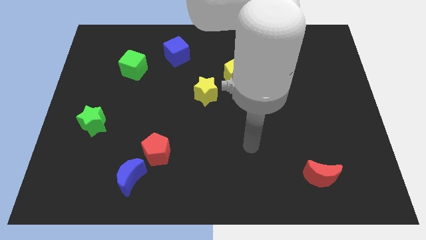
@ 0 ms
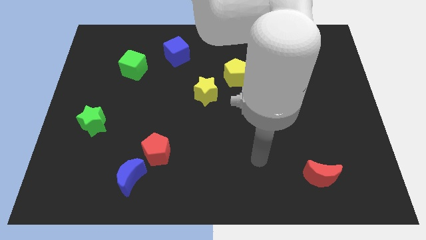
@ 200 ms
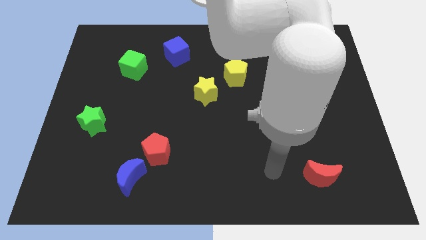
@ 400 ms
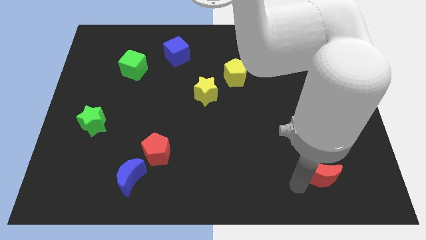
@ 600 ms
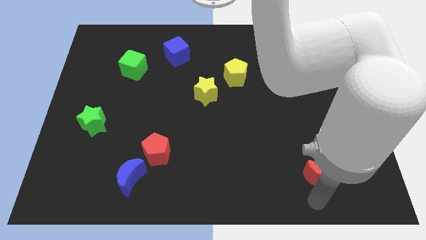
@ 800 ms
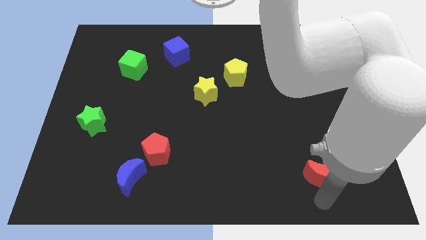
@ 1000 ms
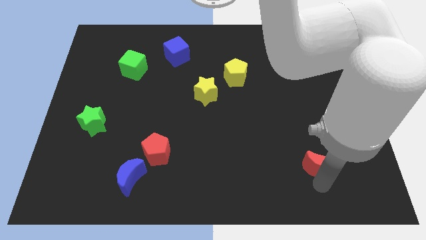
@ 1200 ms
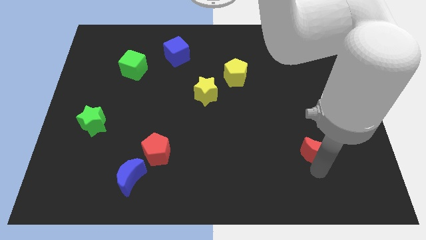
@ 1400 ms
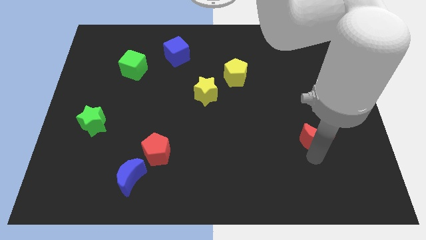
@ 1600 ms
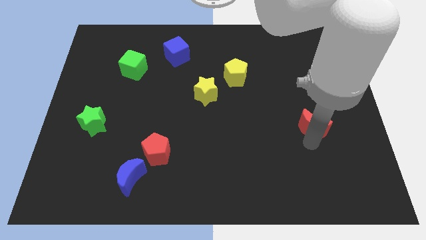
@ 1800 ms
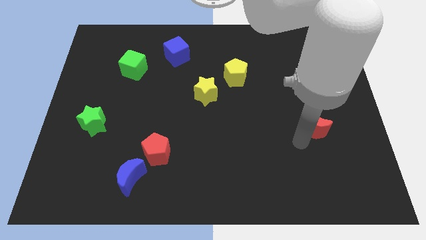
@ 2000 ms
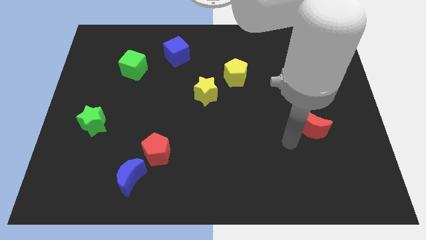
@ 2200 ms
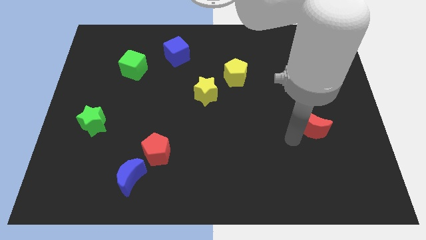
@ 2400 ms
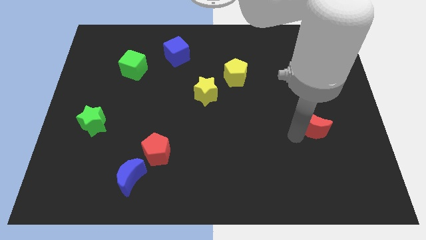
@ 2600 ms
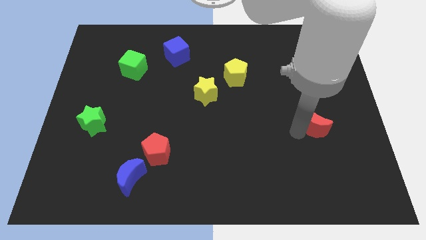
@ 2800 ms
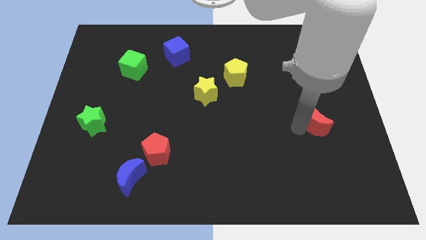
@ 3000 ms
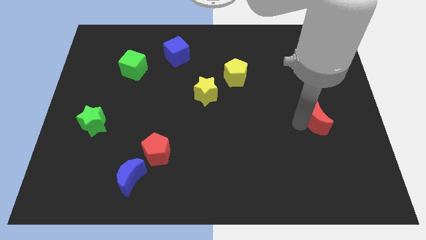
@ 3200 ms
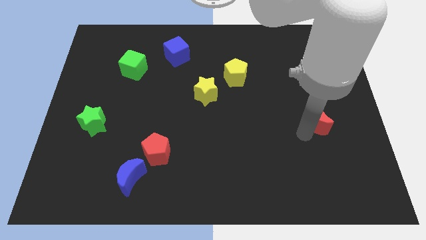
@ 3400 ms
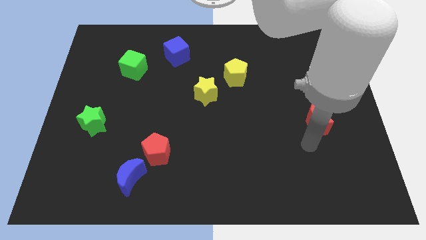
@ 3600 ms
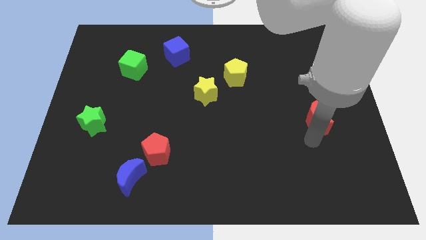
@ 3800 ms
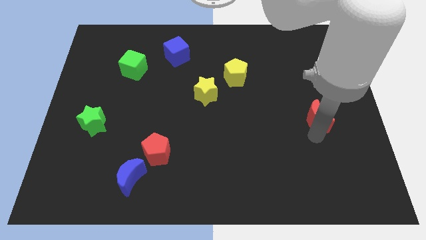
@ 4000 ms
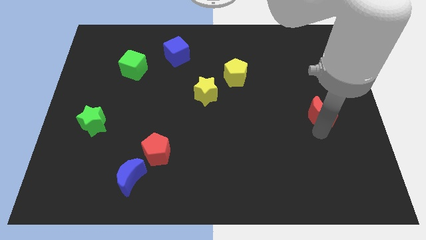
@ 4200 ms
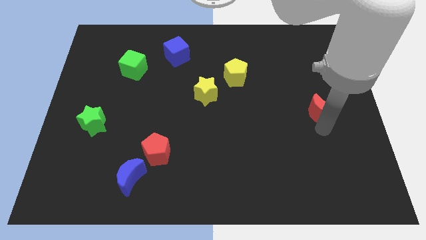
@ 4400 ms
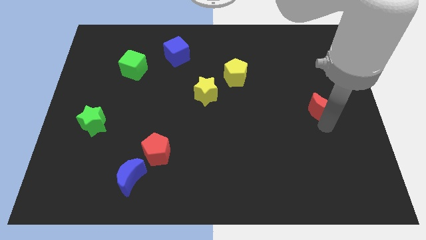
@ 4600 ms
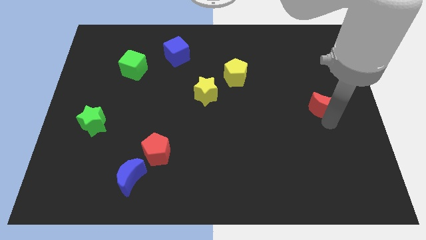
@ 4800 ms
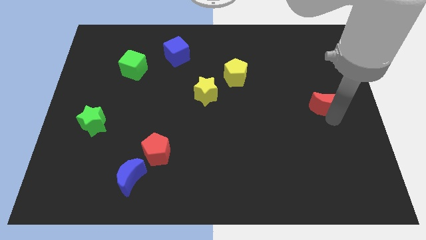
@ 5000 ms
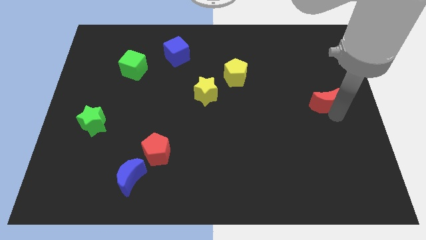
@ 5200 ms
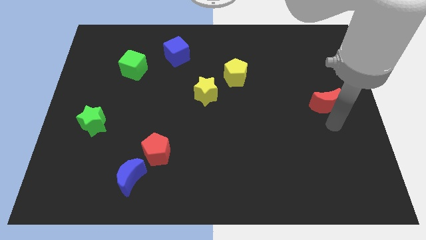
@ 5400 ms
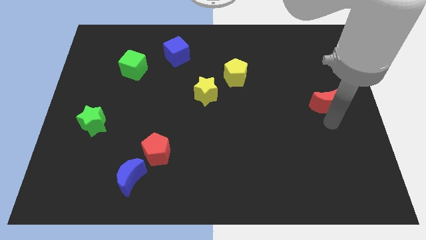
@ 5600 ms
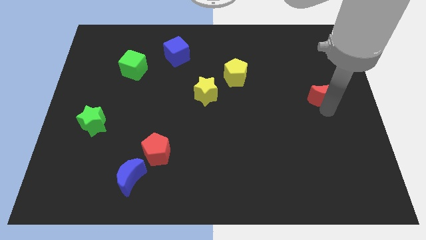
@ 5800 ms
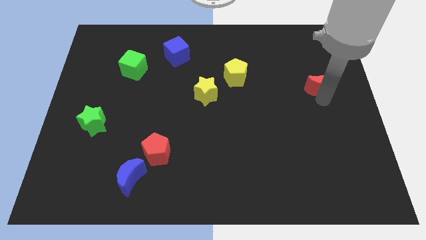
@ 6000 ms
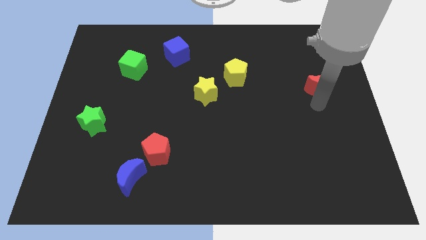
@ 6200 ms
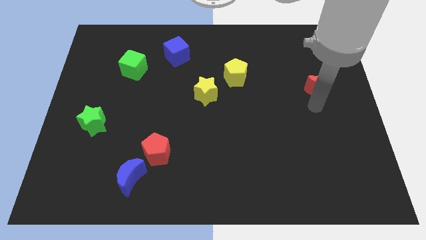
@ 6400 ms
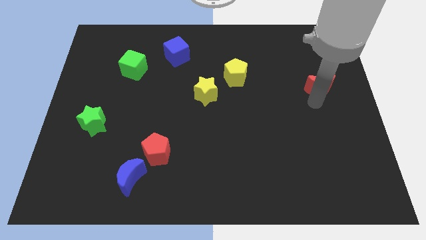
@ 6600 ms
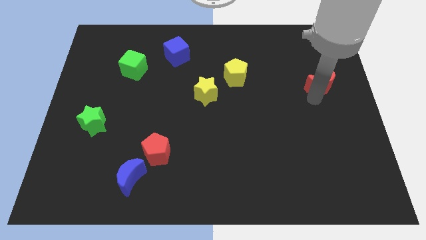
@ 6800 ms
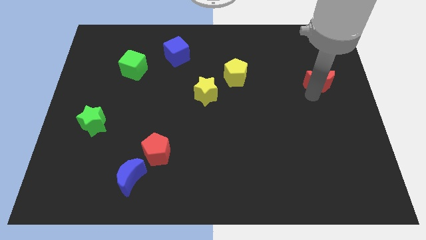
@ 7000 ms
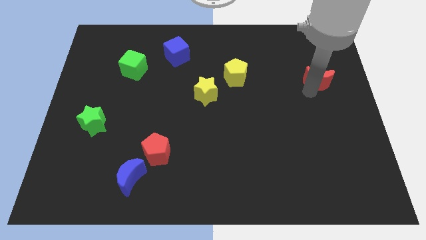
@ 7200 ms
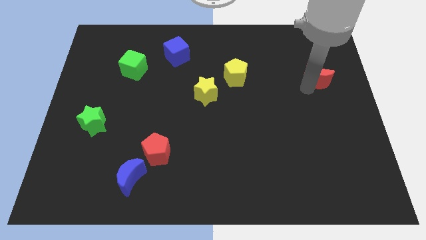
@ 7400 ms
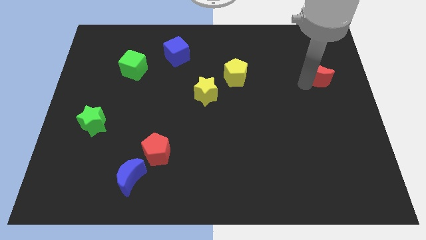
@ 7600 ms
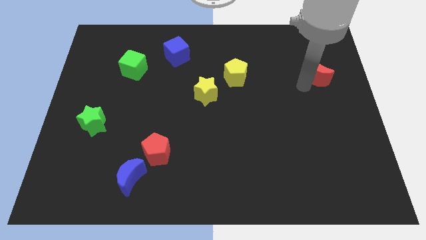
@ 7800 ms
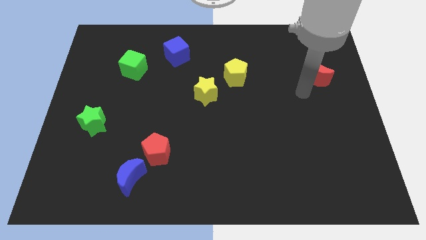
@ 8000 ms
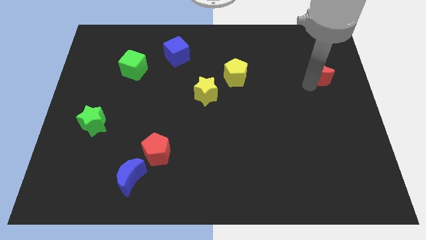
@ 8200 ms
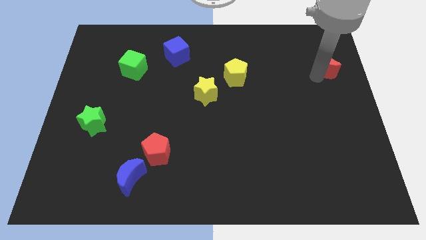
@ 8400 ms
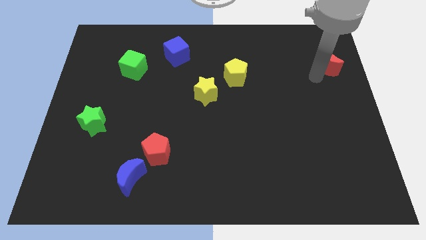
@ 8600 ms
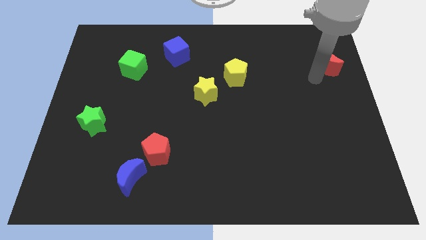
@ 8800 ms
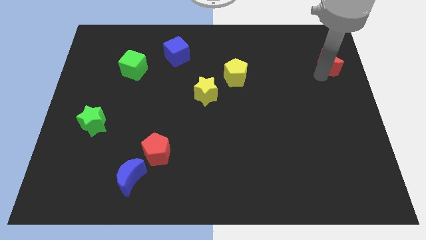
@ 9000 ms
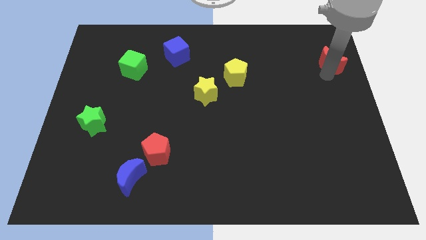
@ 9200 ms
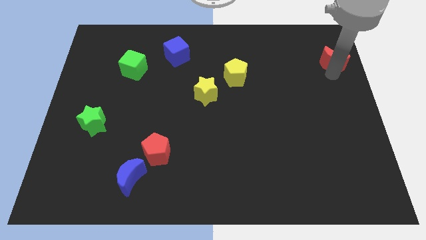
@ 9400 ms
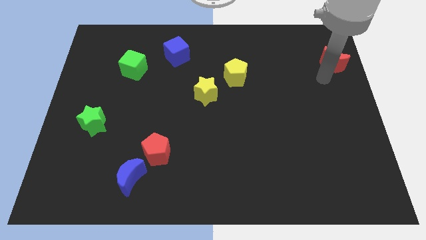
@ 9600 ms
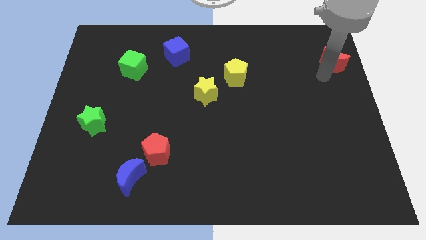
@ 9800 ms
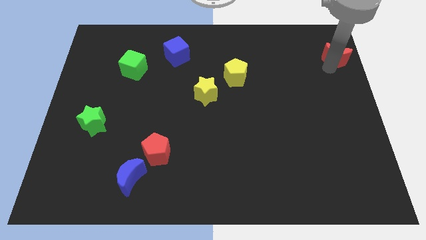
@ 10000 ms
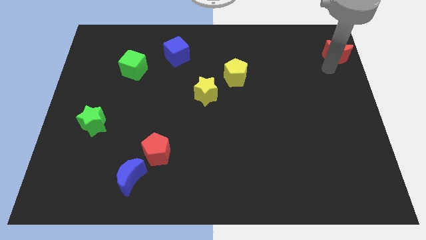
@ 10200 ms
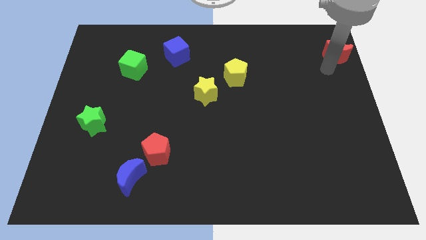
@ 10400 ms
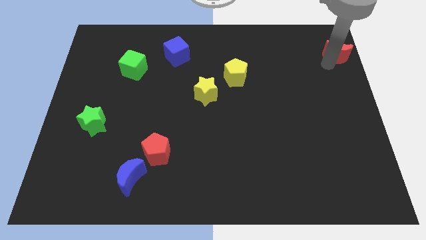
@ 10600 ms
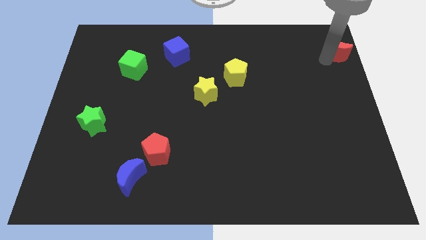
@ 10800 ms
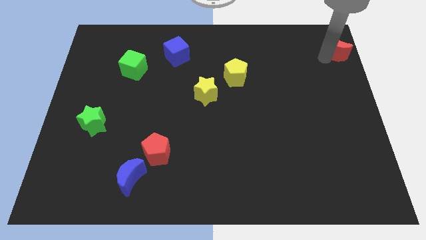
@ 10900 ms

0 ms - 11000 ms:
push the red moon to the top right

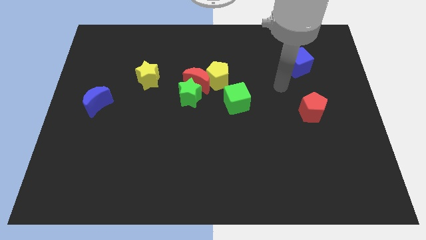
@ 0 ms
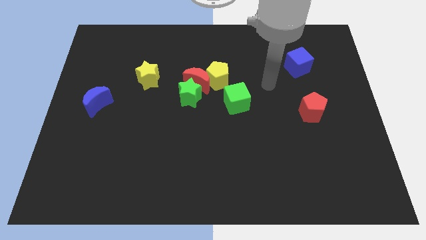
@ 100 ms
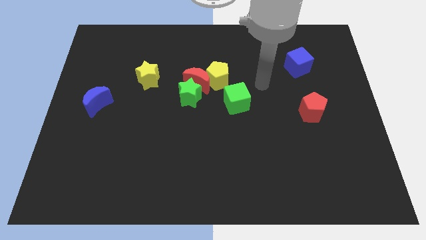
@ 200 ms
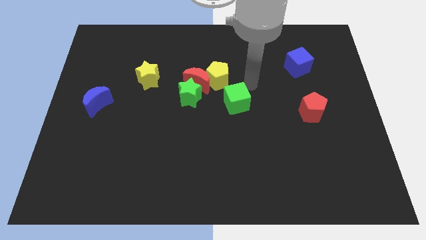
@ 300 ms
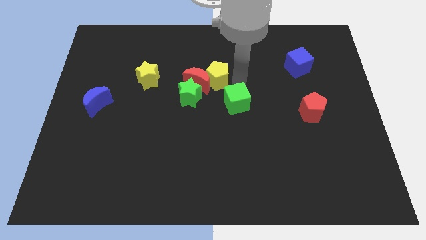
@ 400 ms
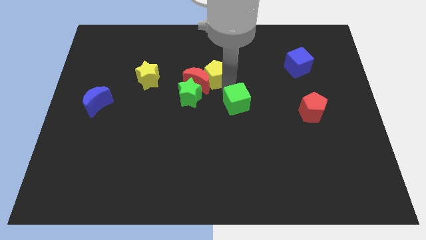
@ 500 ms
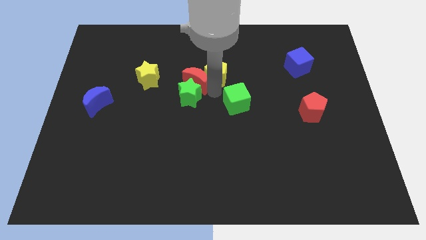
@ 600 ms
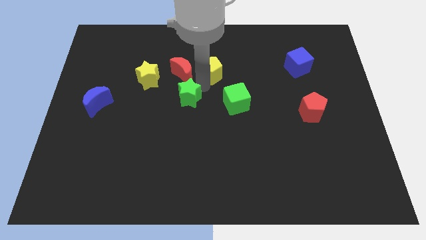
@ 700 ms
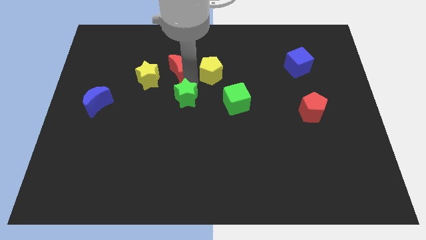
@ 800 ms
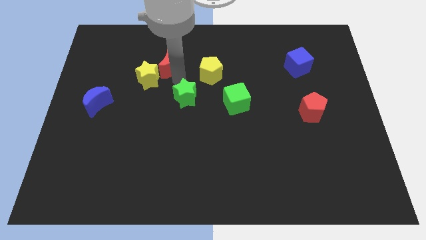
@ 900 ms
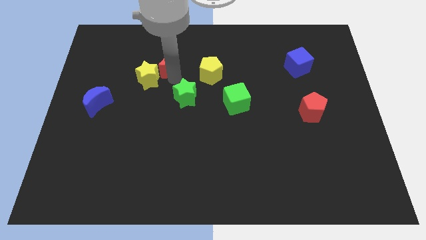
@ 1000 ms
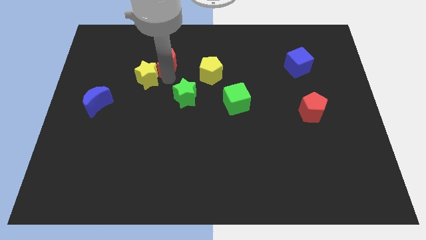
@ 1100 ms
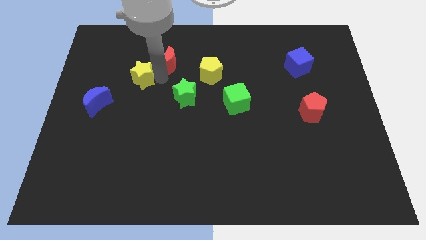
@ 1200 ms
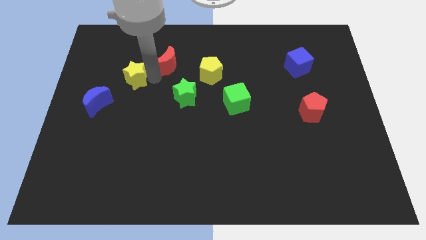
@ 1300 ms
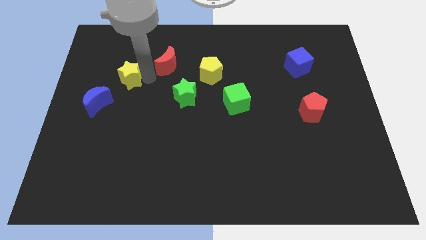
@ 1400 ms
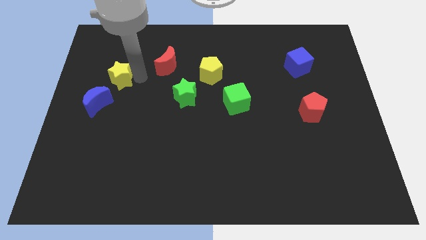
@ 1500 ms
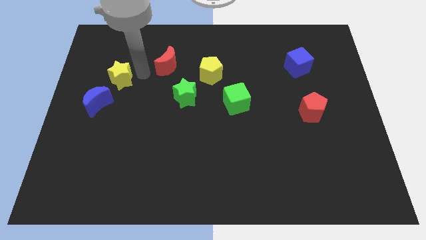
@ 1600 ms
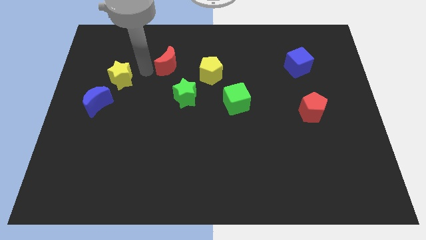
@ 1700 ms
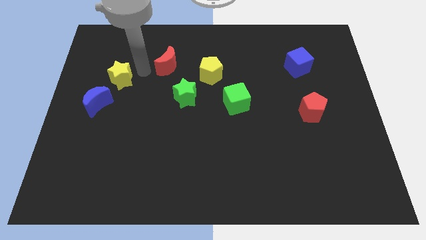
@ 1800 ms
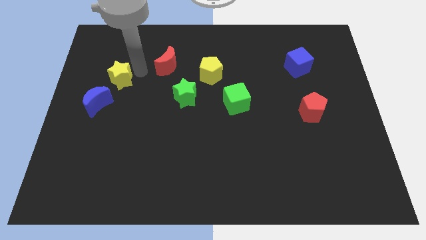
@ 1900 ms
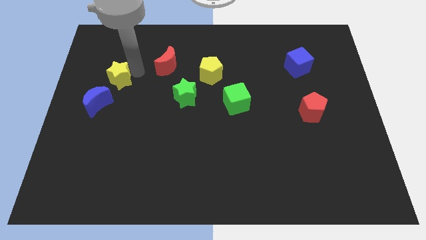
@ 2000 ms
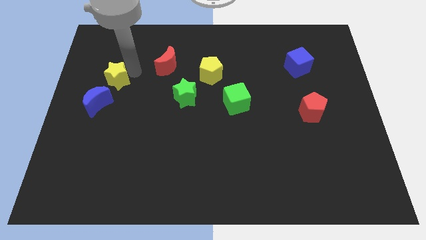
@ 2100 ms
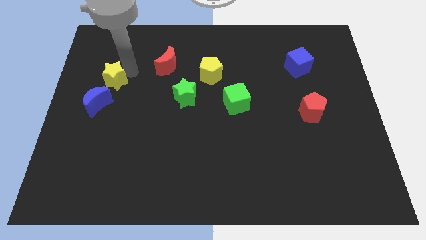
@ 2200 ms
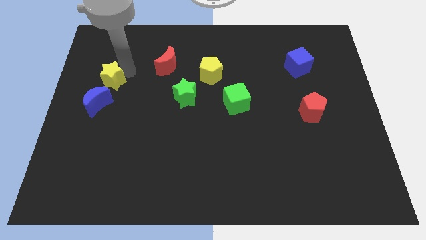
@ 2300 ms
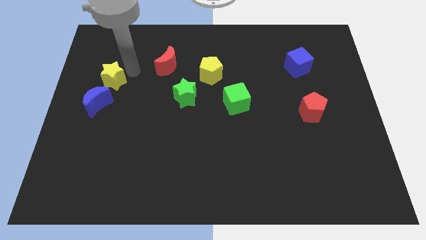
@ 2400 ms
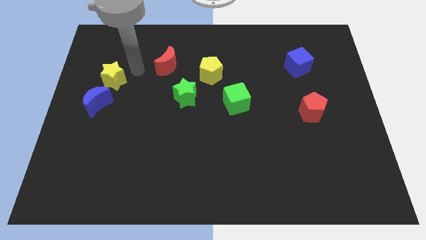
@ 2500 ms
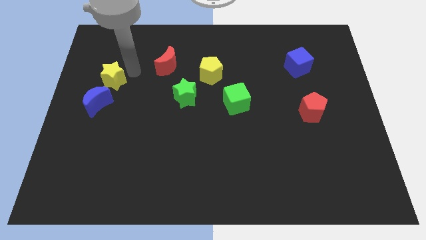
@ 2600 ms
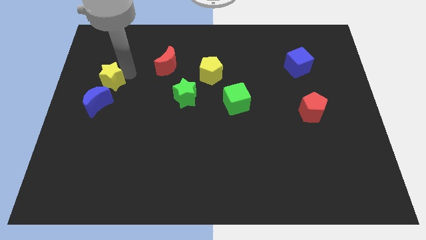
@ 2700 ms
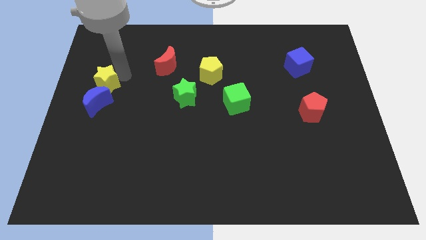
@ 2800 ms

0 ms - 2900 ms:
move the yellow star to the center left
